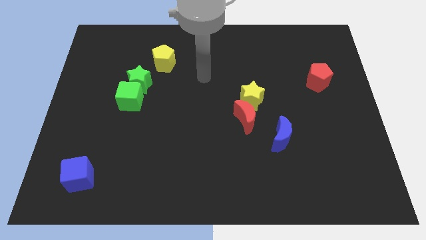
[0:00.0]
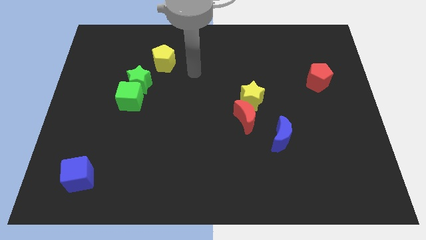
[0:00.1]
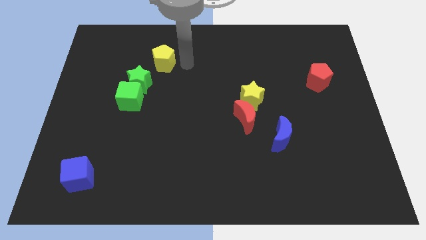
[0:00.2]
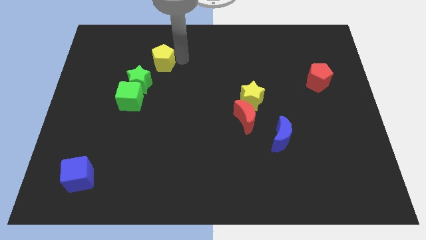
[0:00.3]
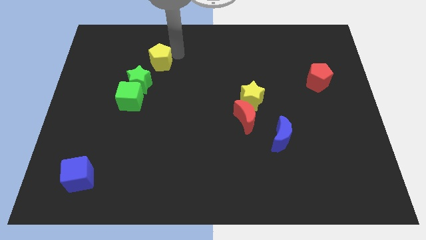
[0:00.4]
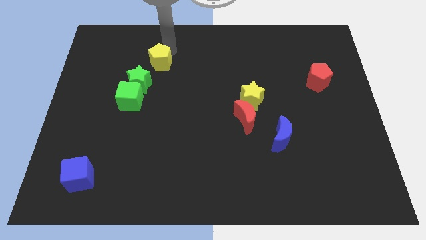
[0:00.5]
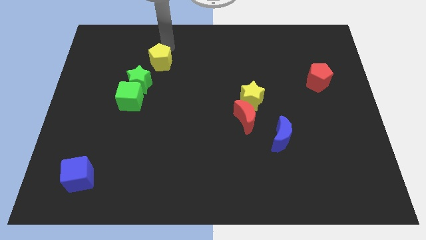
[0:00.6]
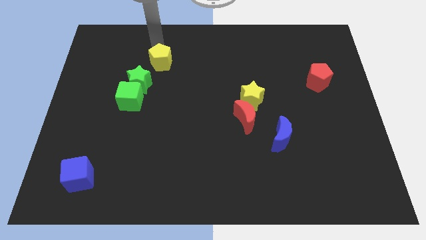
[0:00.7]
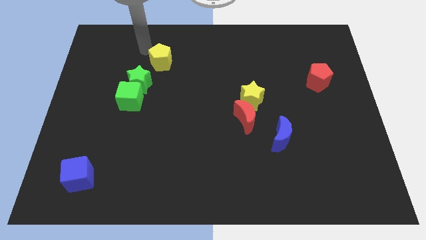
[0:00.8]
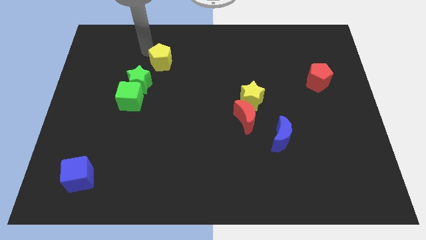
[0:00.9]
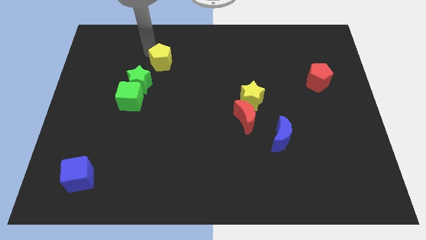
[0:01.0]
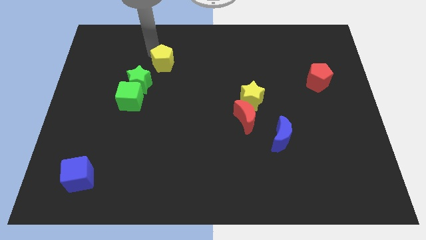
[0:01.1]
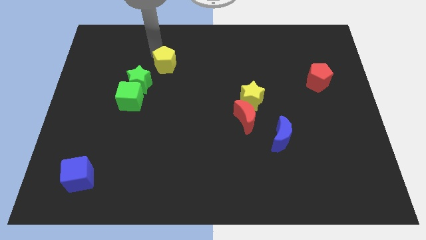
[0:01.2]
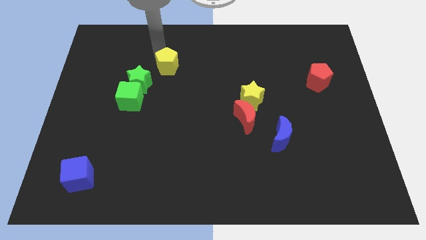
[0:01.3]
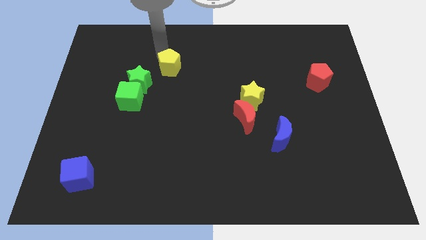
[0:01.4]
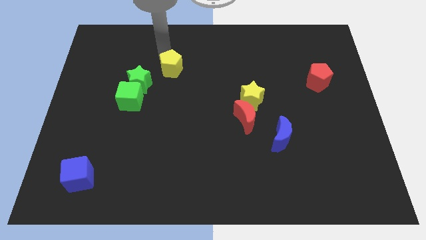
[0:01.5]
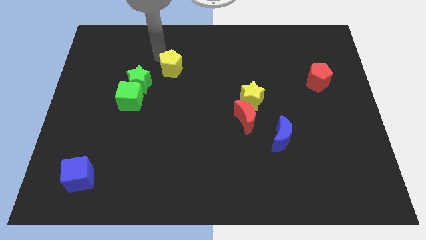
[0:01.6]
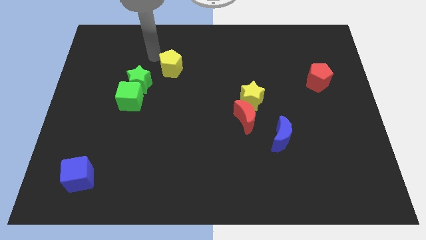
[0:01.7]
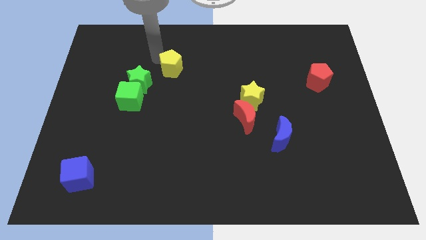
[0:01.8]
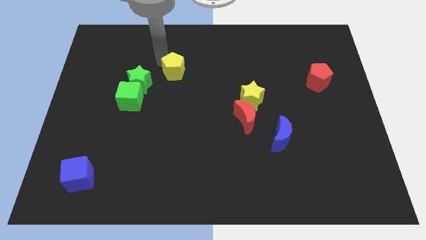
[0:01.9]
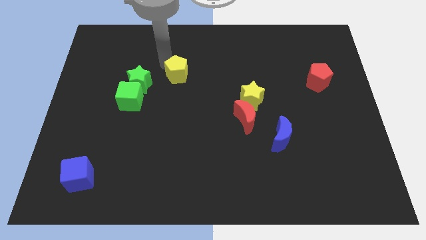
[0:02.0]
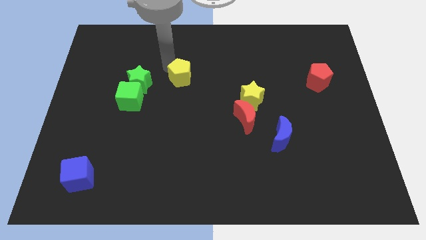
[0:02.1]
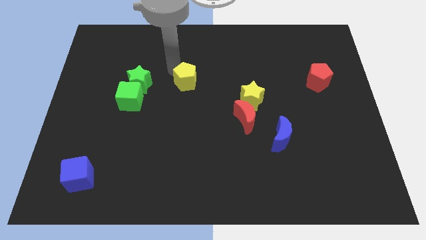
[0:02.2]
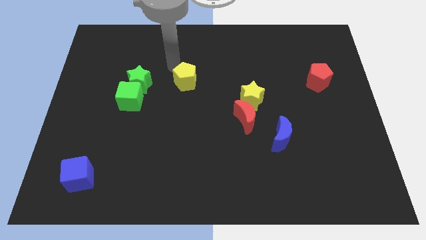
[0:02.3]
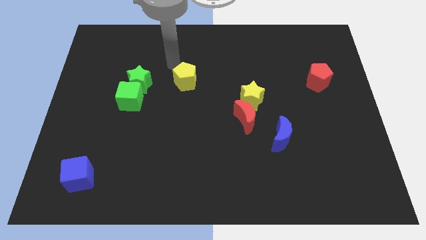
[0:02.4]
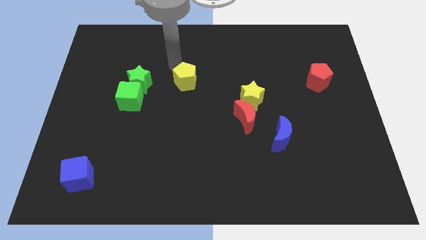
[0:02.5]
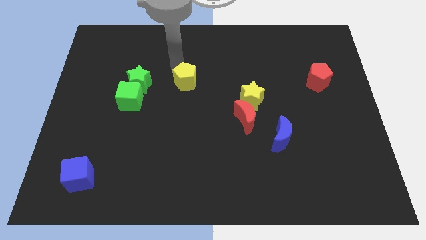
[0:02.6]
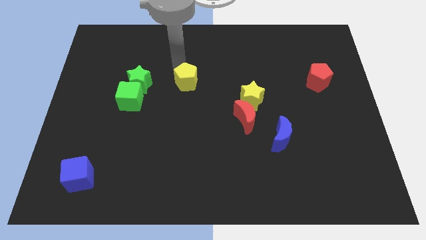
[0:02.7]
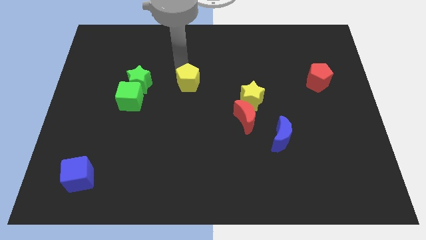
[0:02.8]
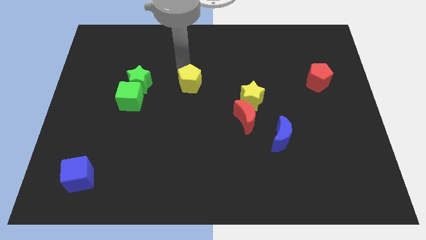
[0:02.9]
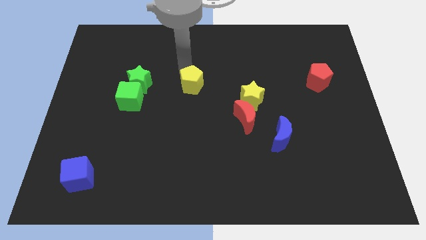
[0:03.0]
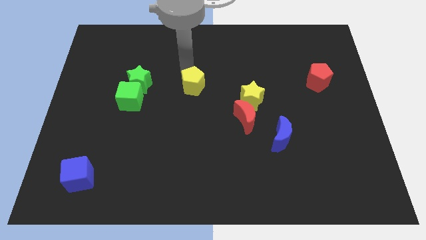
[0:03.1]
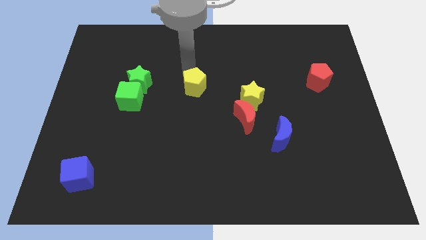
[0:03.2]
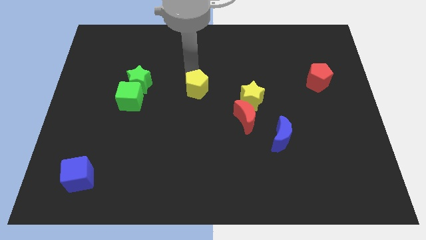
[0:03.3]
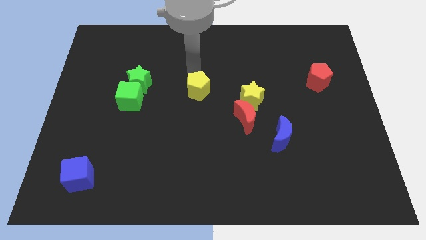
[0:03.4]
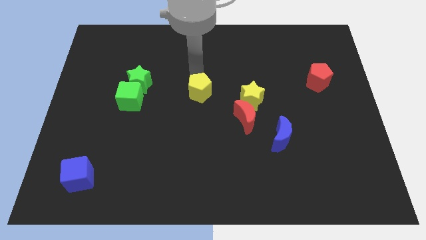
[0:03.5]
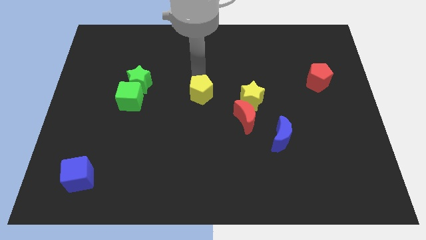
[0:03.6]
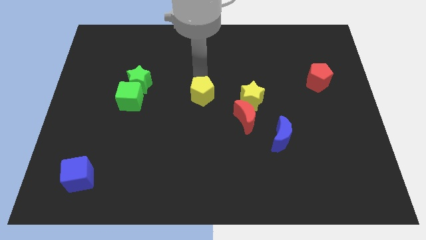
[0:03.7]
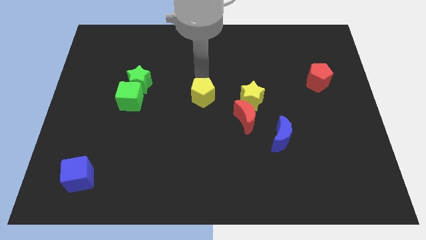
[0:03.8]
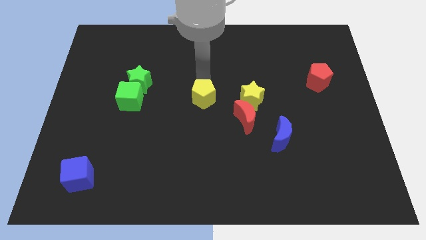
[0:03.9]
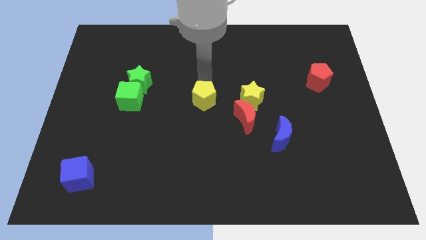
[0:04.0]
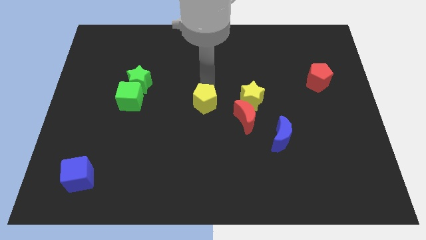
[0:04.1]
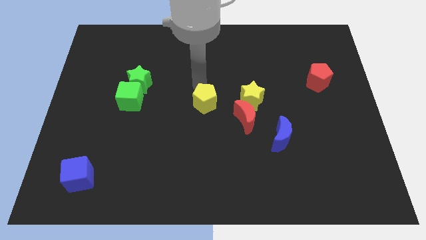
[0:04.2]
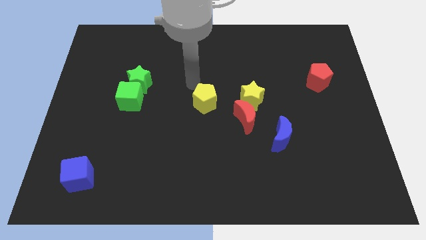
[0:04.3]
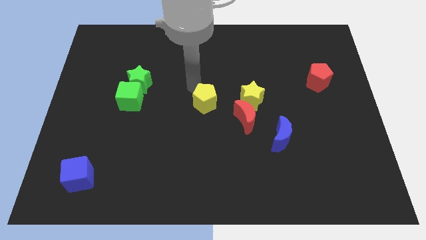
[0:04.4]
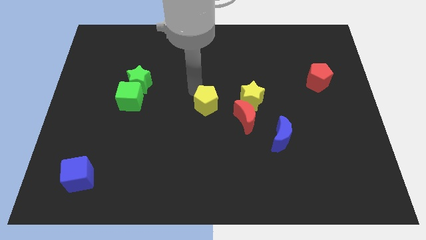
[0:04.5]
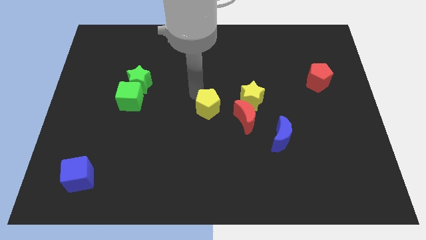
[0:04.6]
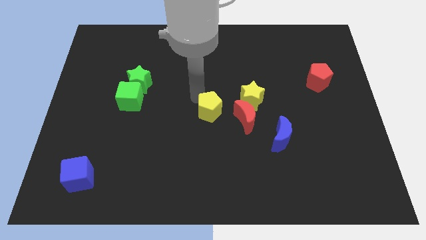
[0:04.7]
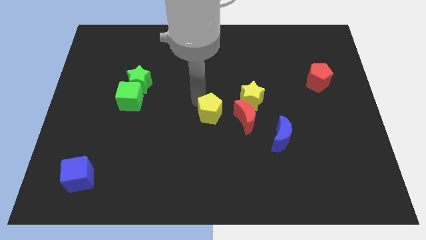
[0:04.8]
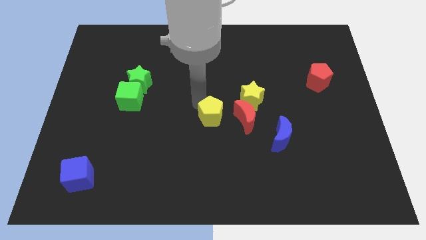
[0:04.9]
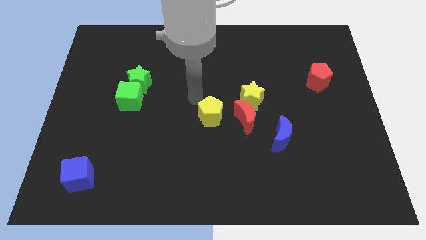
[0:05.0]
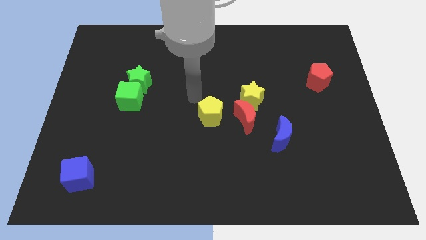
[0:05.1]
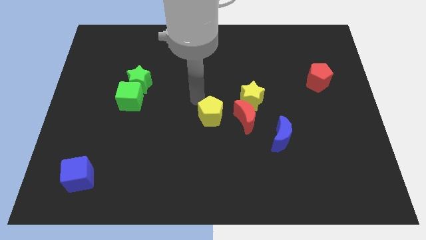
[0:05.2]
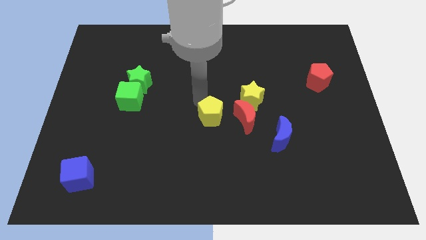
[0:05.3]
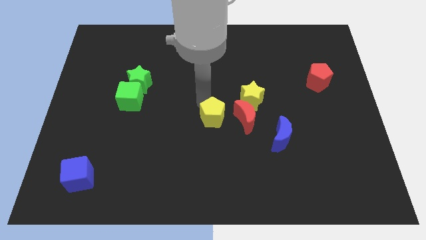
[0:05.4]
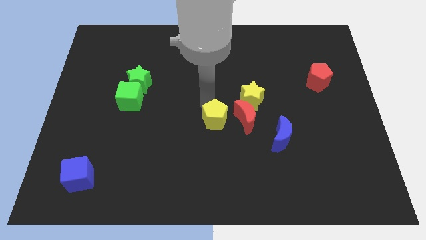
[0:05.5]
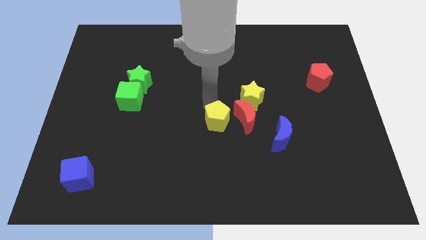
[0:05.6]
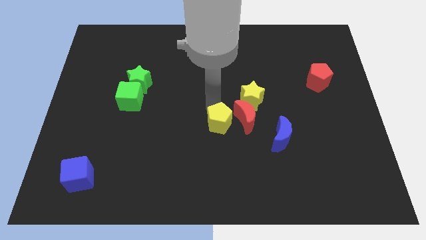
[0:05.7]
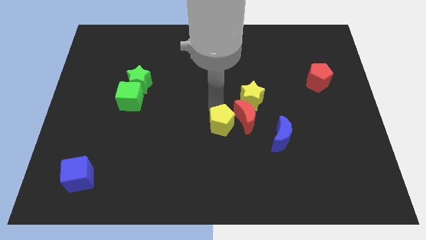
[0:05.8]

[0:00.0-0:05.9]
put the yellow pentagon left of the blue moon

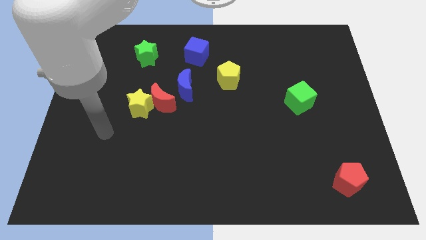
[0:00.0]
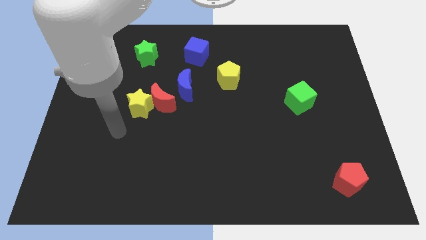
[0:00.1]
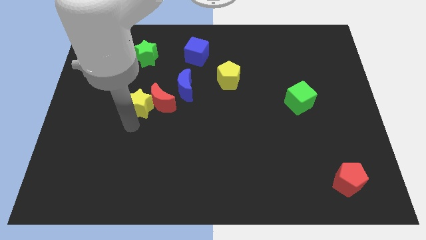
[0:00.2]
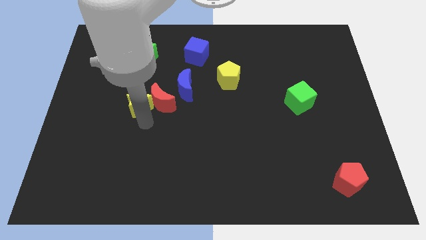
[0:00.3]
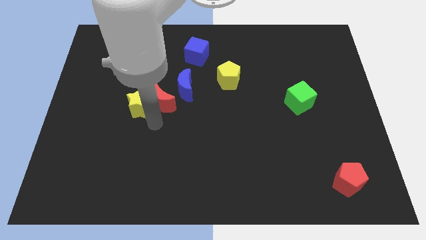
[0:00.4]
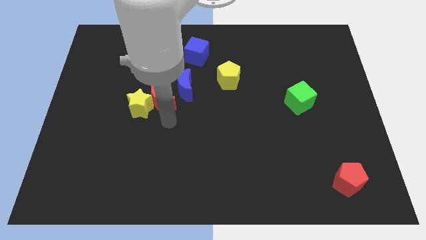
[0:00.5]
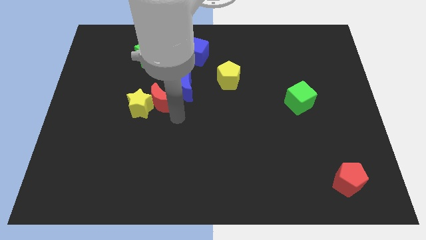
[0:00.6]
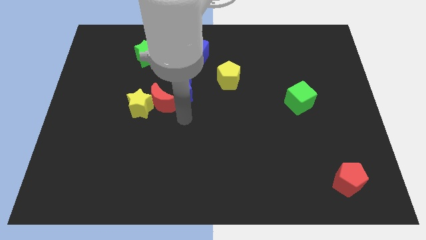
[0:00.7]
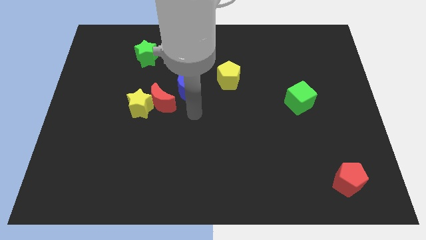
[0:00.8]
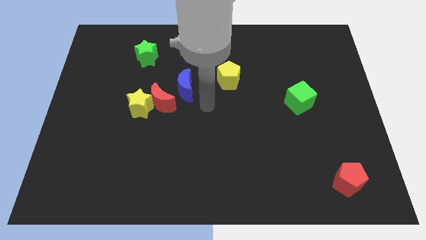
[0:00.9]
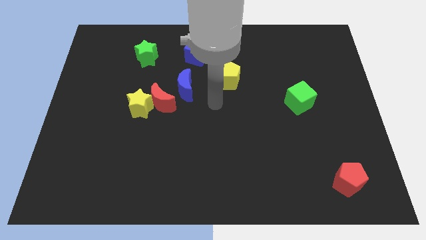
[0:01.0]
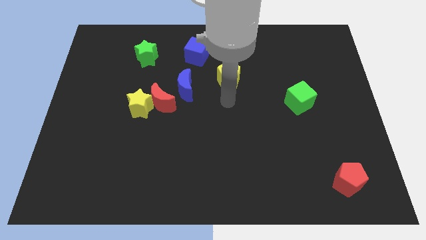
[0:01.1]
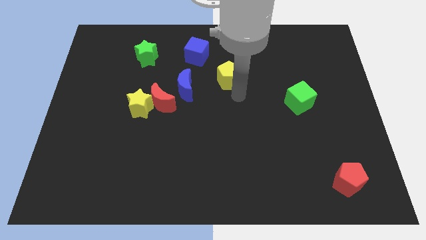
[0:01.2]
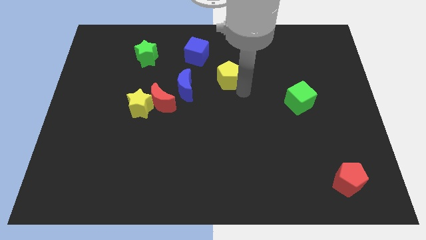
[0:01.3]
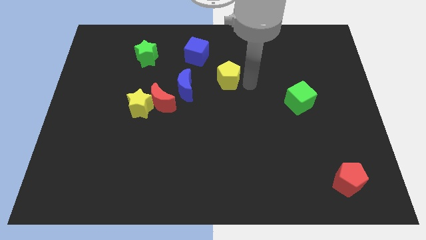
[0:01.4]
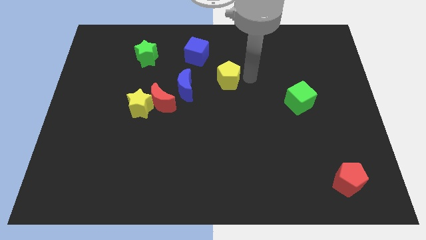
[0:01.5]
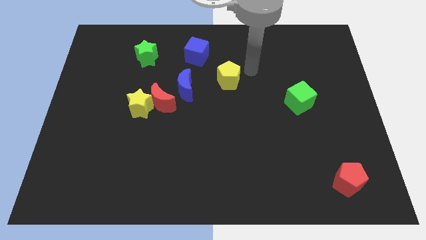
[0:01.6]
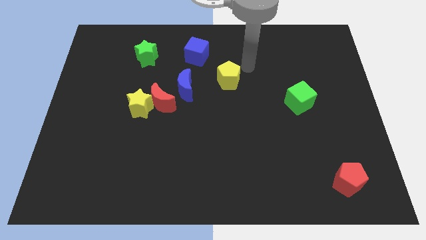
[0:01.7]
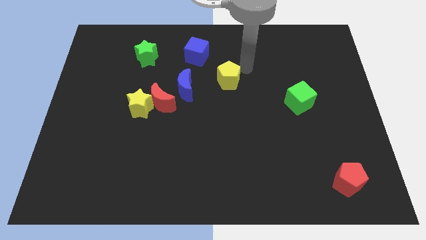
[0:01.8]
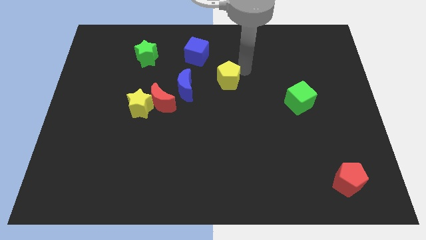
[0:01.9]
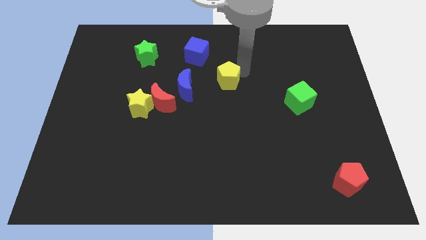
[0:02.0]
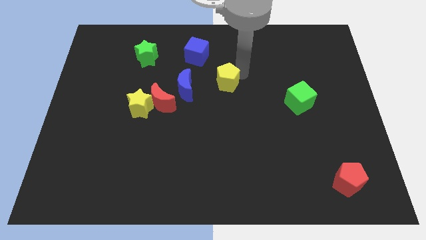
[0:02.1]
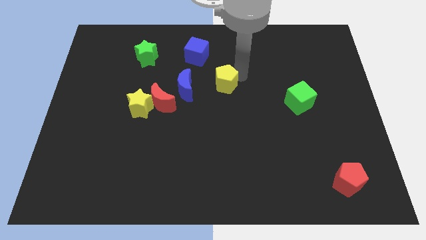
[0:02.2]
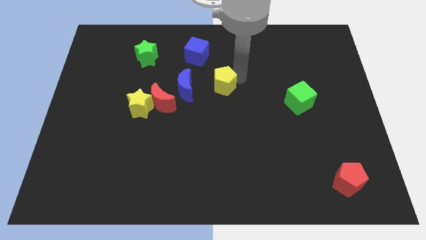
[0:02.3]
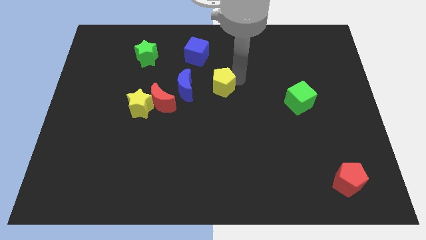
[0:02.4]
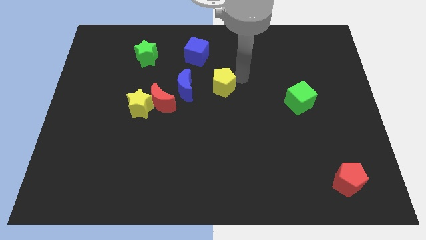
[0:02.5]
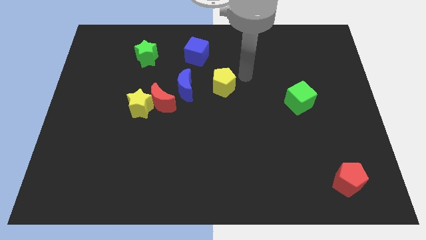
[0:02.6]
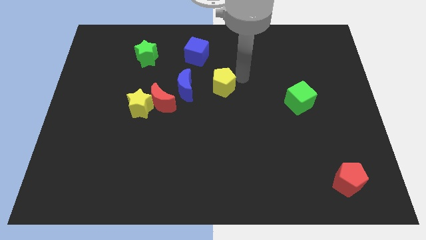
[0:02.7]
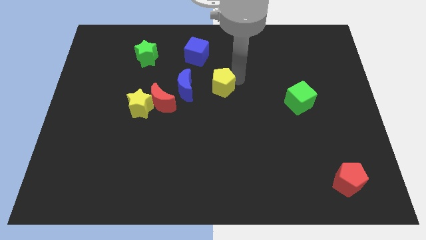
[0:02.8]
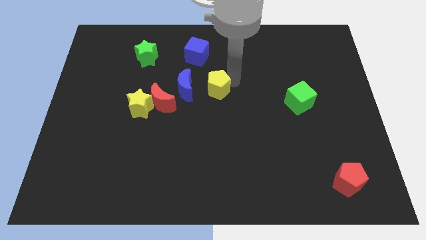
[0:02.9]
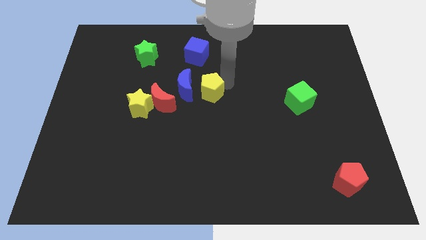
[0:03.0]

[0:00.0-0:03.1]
slide the yellow pentagon to the bottom side of the blue cube
